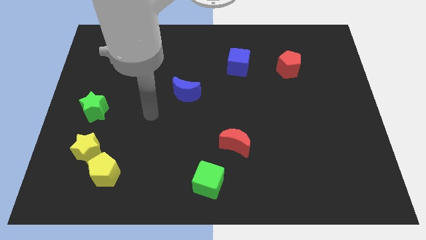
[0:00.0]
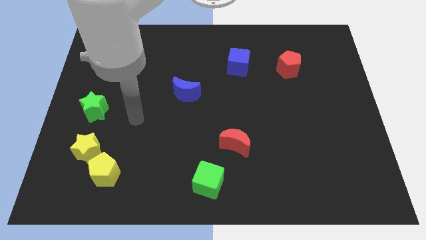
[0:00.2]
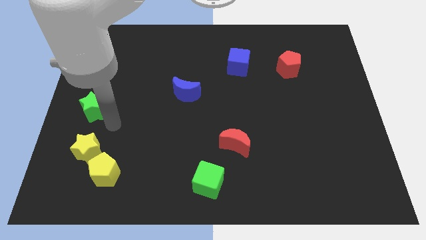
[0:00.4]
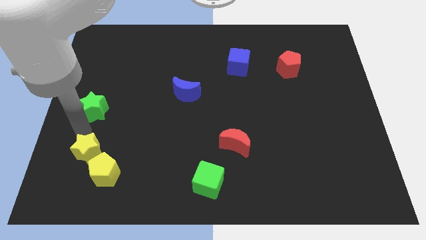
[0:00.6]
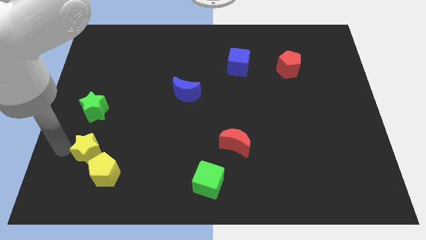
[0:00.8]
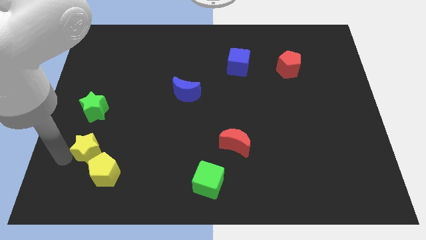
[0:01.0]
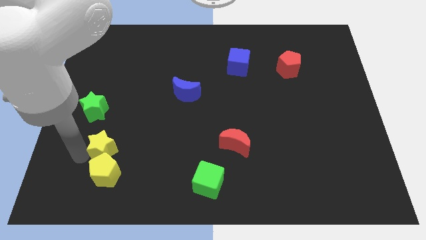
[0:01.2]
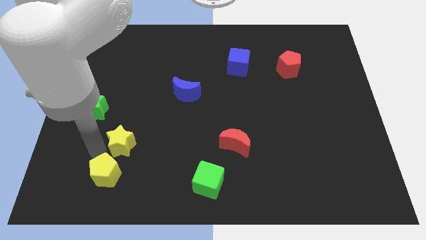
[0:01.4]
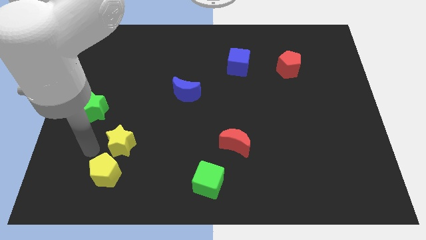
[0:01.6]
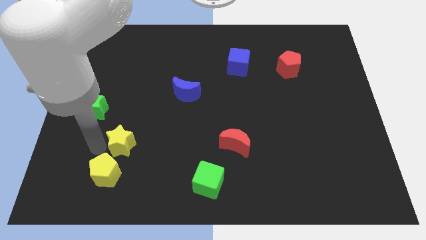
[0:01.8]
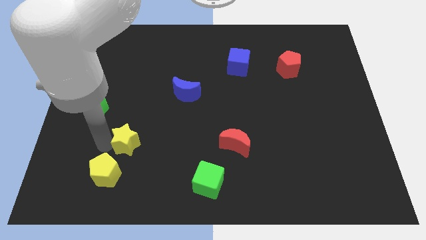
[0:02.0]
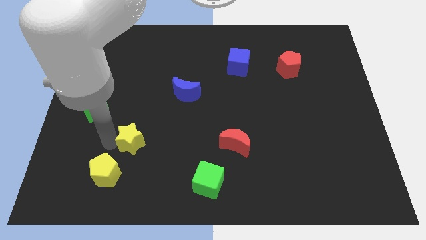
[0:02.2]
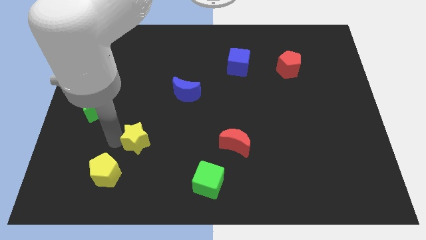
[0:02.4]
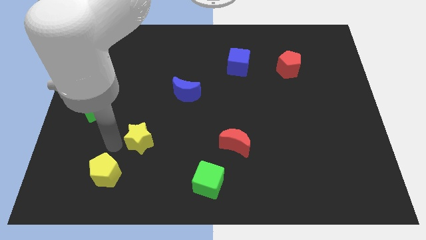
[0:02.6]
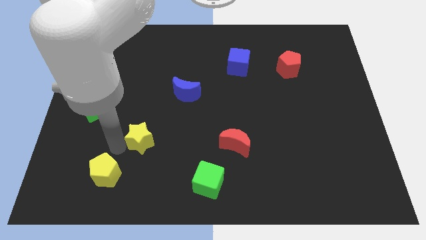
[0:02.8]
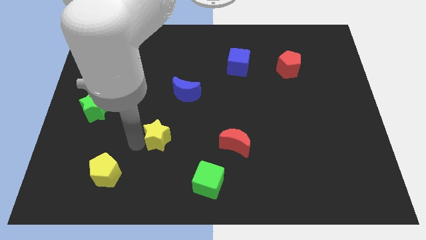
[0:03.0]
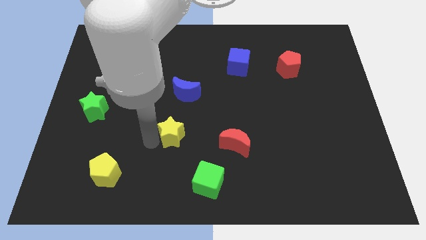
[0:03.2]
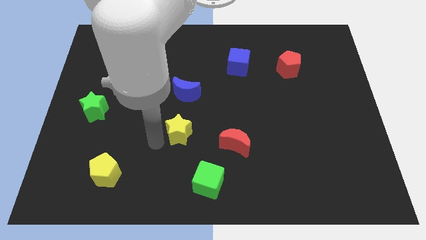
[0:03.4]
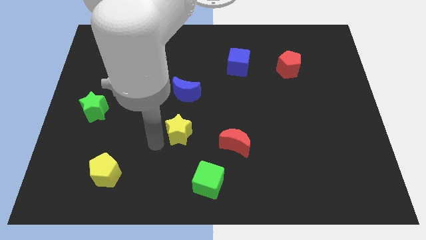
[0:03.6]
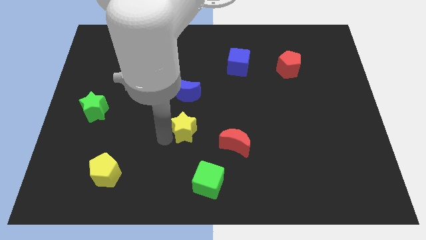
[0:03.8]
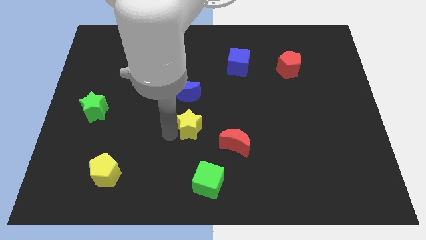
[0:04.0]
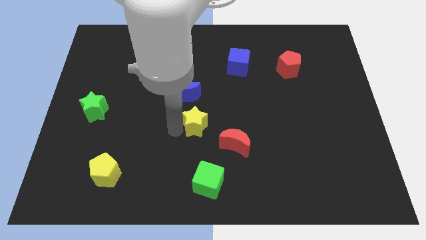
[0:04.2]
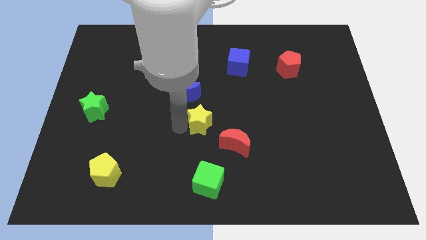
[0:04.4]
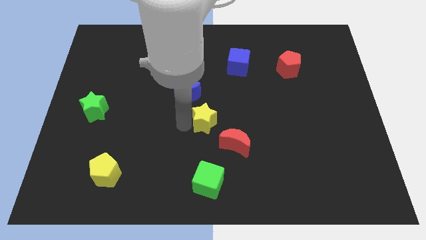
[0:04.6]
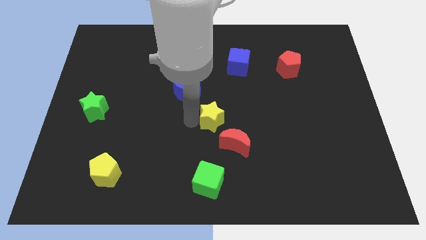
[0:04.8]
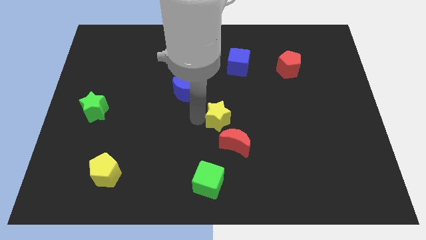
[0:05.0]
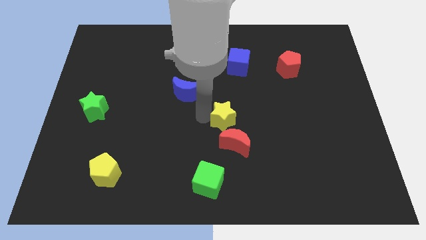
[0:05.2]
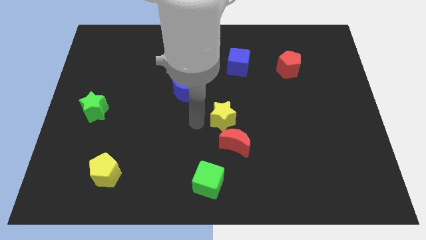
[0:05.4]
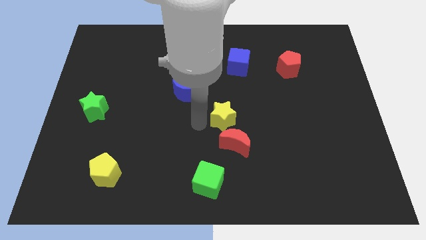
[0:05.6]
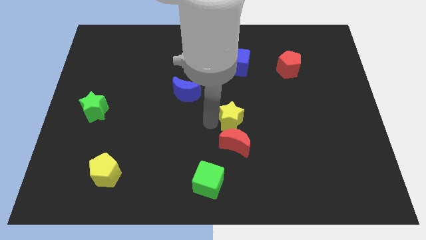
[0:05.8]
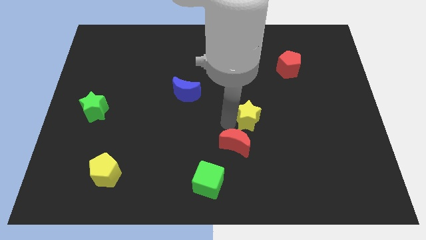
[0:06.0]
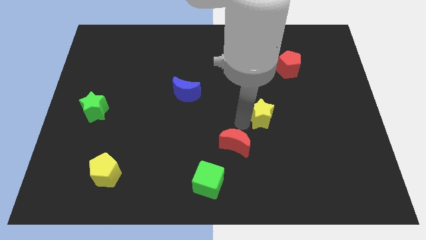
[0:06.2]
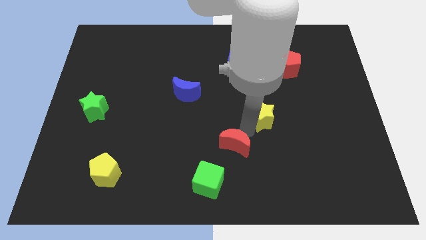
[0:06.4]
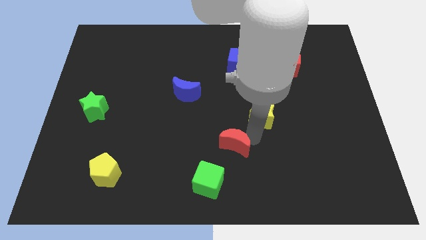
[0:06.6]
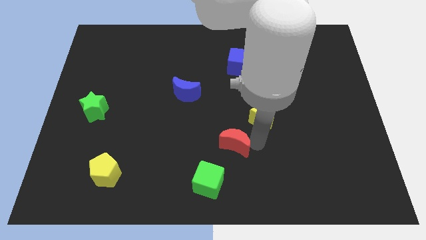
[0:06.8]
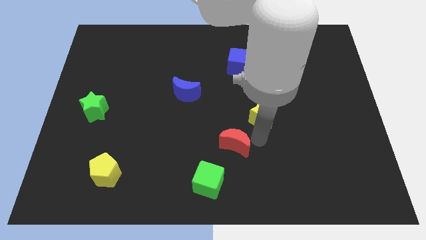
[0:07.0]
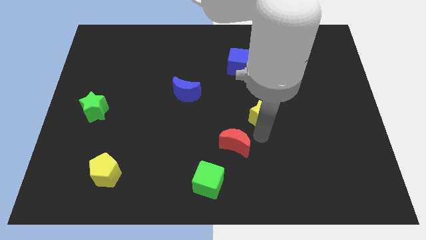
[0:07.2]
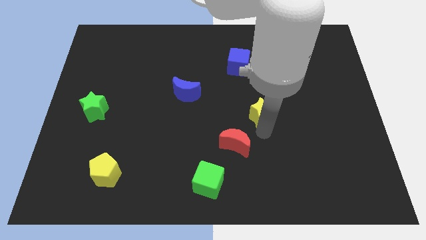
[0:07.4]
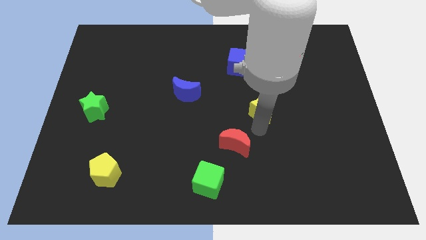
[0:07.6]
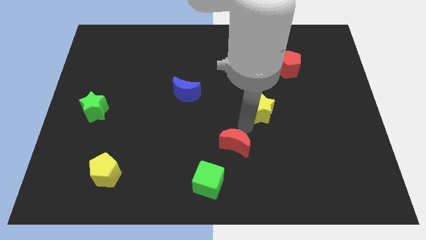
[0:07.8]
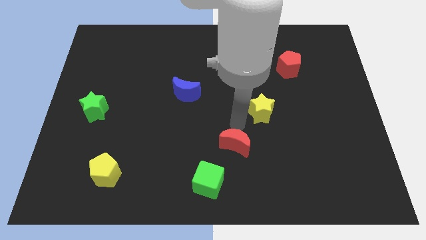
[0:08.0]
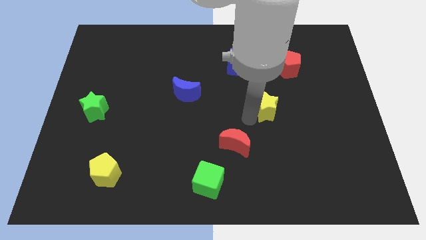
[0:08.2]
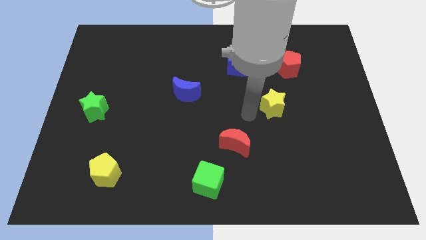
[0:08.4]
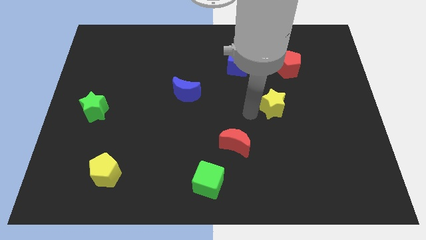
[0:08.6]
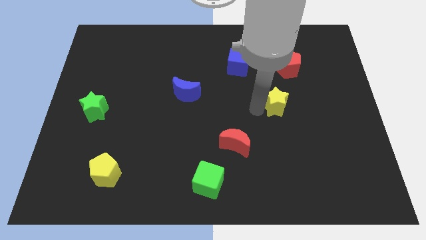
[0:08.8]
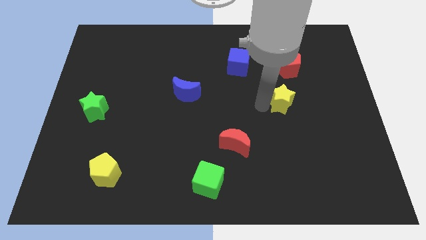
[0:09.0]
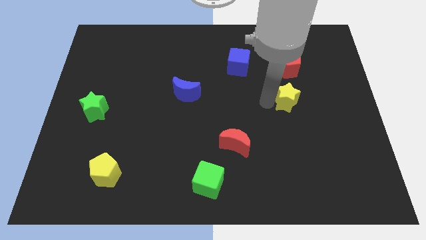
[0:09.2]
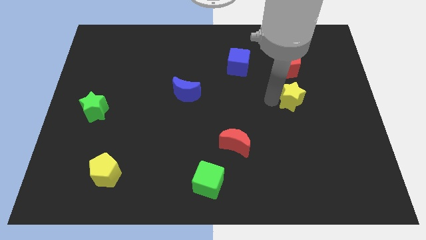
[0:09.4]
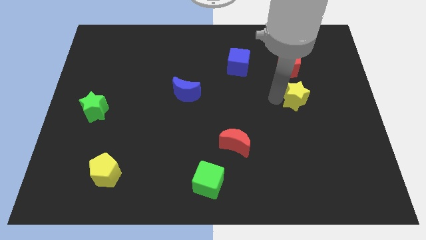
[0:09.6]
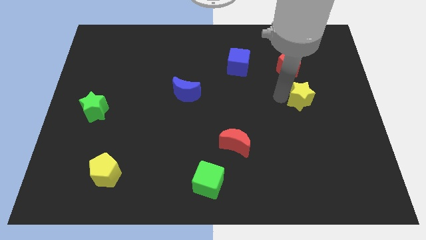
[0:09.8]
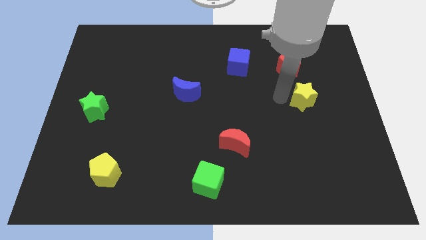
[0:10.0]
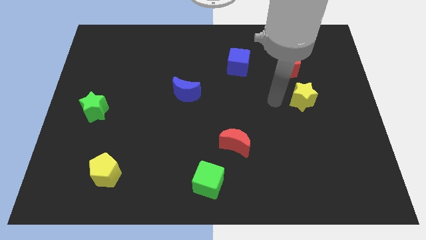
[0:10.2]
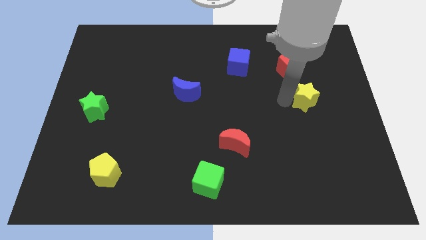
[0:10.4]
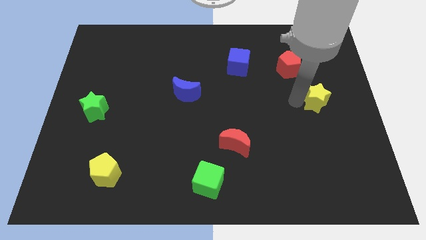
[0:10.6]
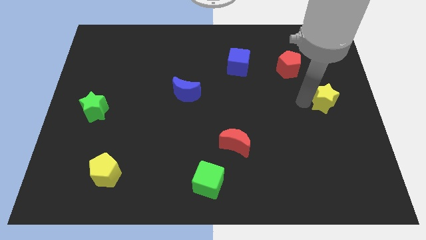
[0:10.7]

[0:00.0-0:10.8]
move the yellow star to the right side of the board

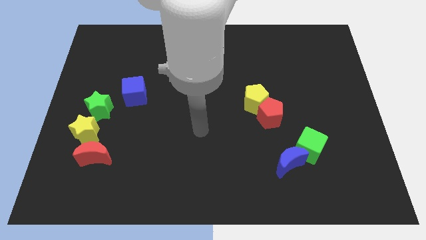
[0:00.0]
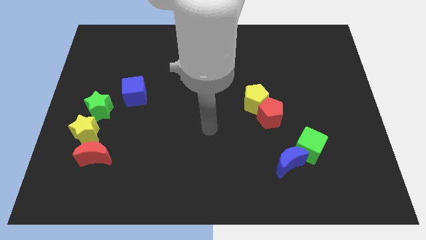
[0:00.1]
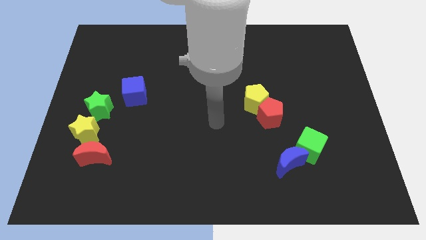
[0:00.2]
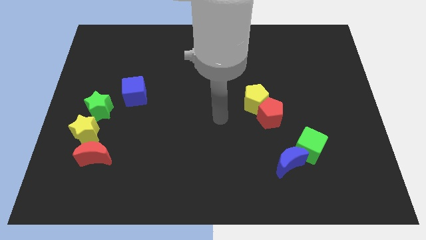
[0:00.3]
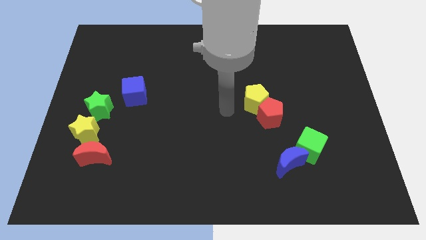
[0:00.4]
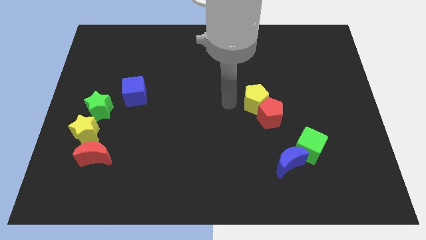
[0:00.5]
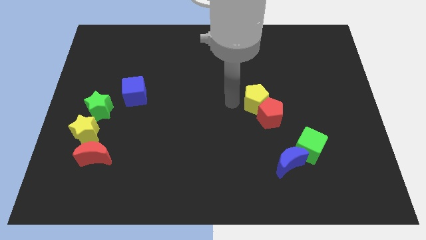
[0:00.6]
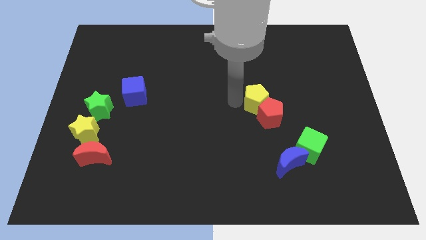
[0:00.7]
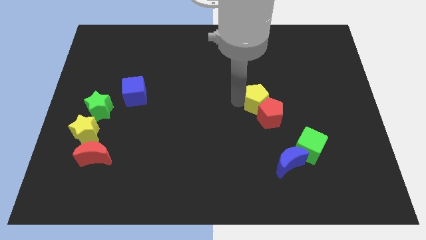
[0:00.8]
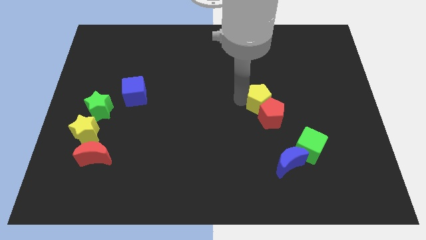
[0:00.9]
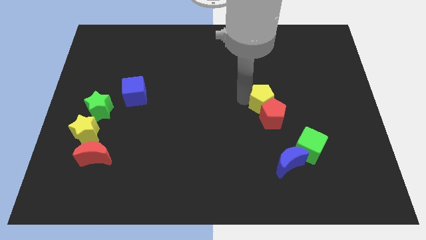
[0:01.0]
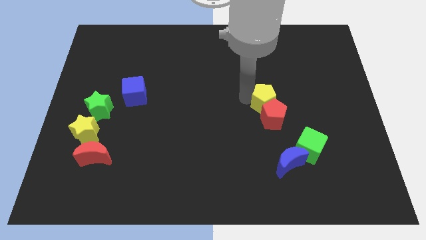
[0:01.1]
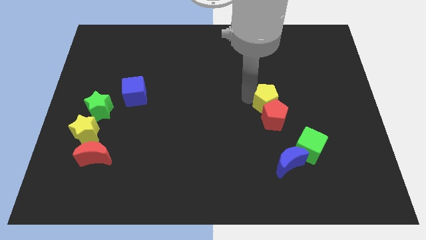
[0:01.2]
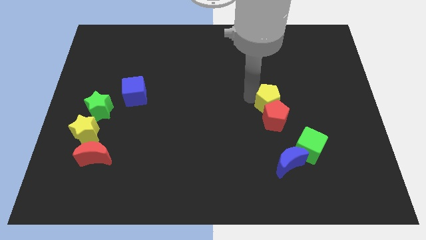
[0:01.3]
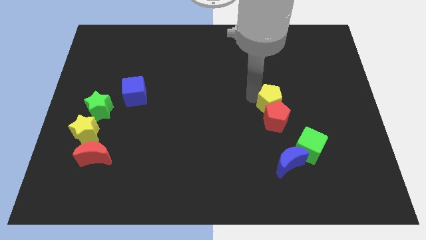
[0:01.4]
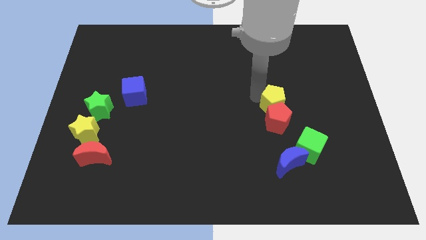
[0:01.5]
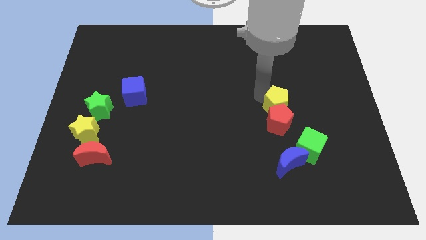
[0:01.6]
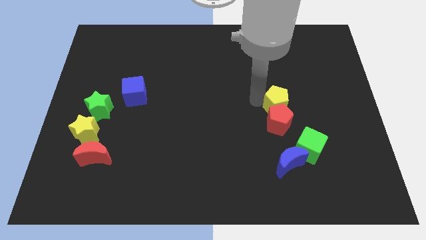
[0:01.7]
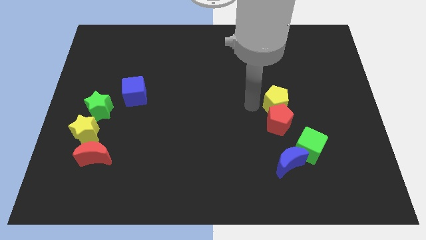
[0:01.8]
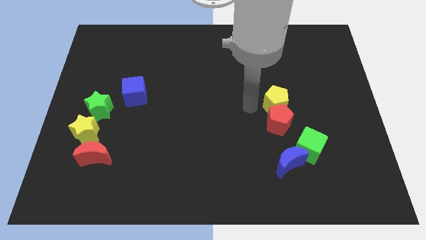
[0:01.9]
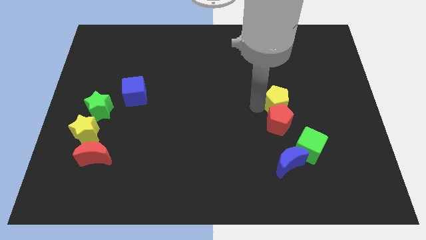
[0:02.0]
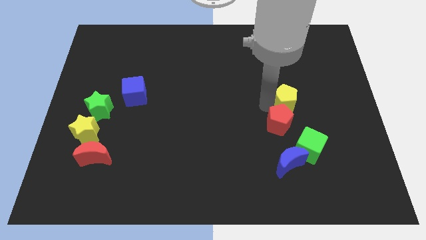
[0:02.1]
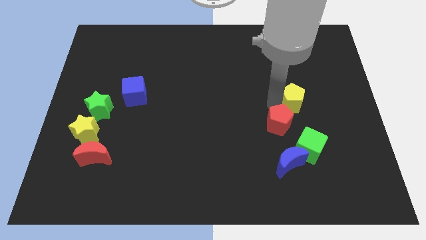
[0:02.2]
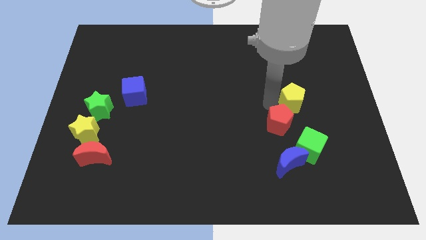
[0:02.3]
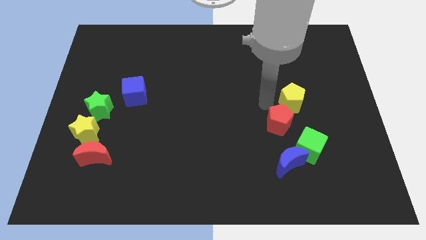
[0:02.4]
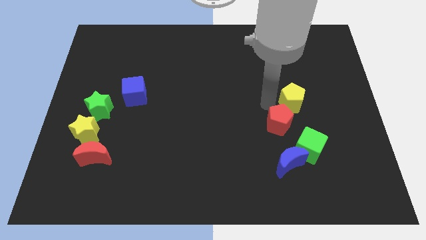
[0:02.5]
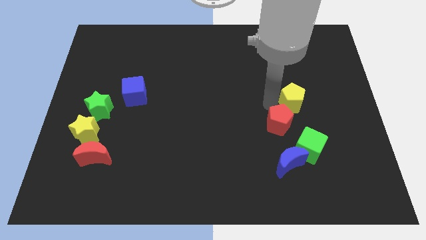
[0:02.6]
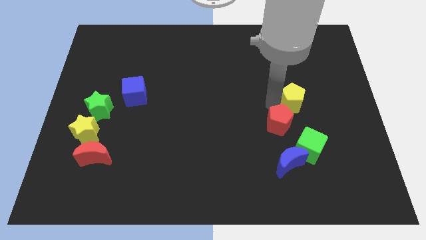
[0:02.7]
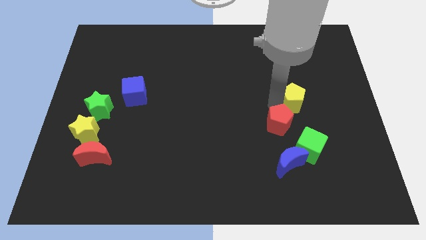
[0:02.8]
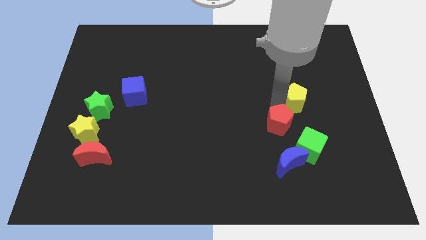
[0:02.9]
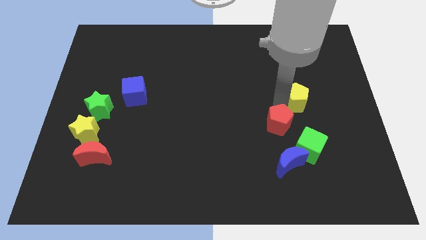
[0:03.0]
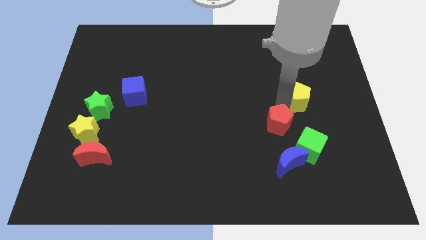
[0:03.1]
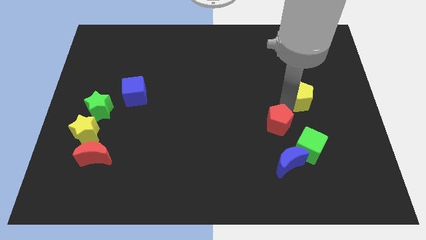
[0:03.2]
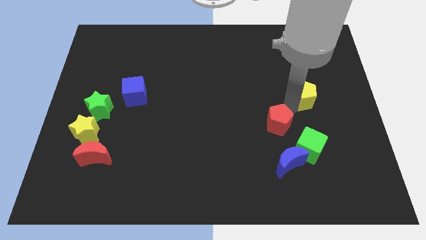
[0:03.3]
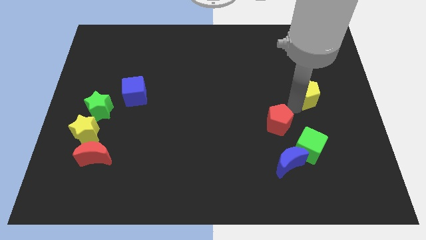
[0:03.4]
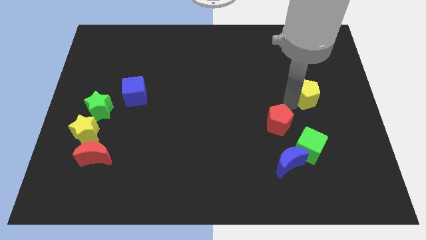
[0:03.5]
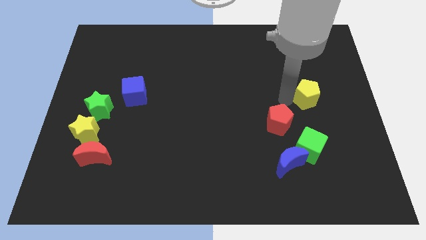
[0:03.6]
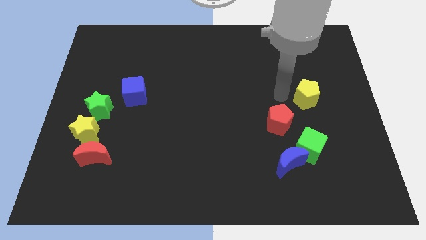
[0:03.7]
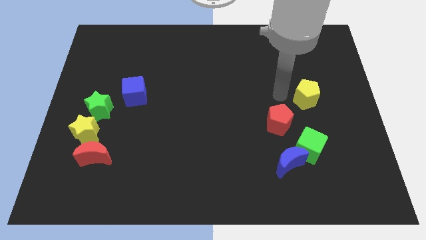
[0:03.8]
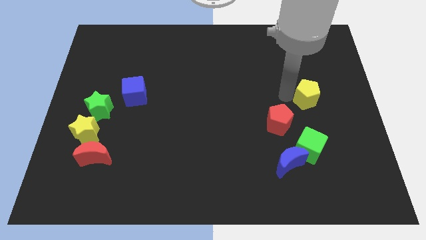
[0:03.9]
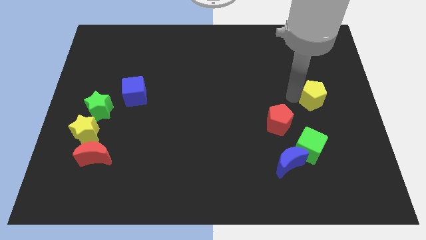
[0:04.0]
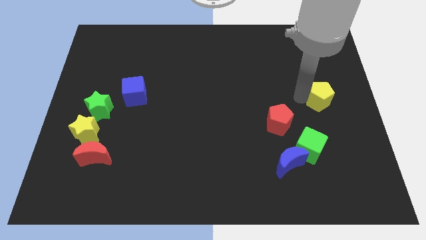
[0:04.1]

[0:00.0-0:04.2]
move the yellow pentagon to the right side of the board
